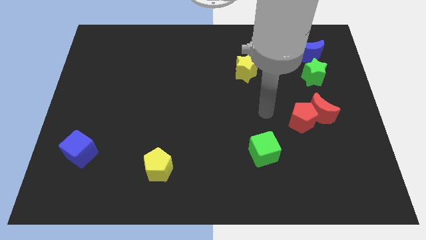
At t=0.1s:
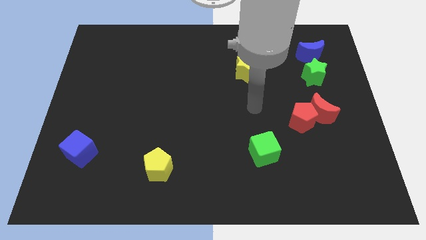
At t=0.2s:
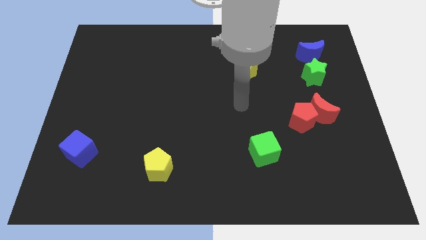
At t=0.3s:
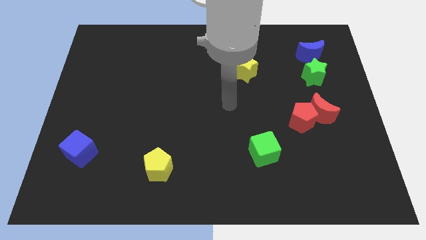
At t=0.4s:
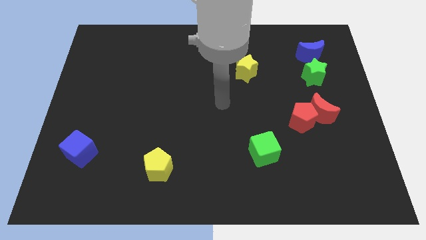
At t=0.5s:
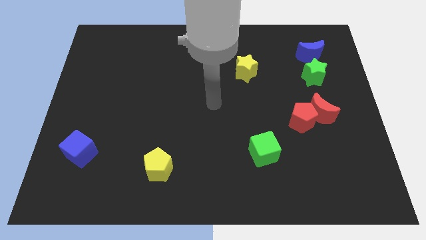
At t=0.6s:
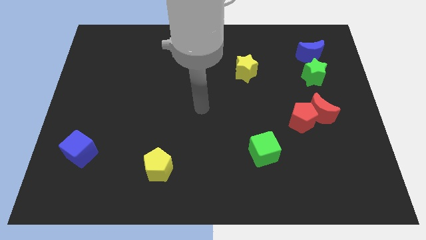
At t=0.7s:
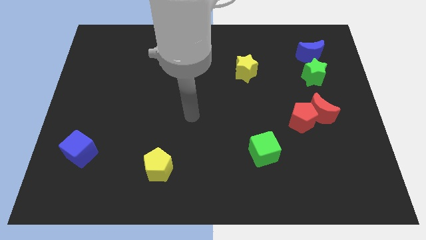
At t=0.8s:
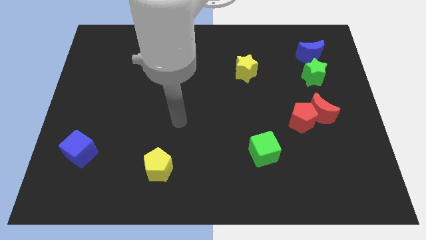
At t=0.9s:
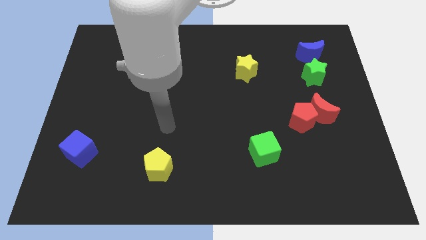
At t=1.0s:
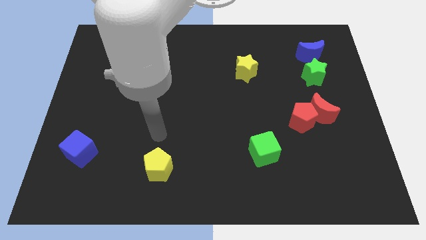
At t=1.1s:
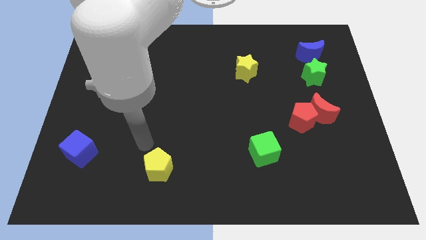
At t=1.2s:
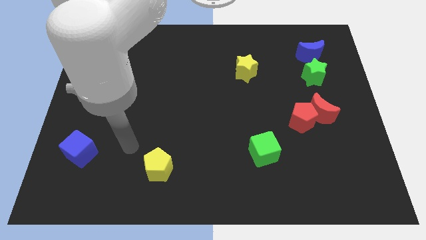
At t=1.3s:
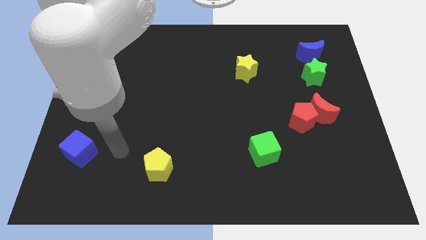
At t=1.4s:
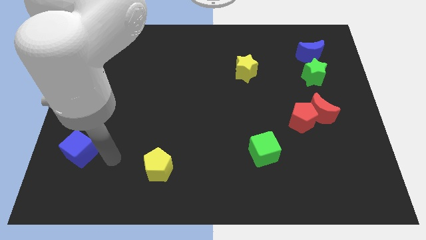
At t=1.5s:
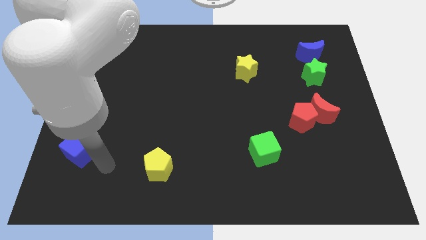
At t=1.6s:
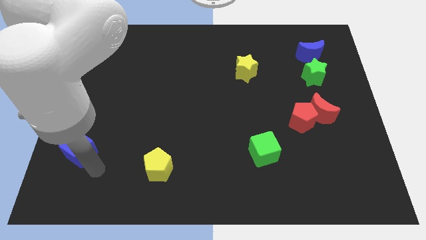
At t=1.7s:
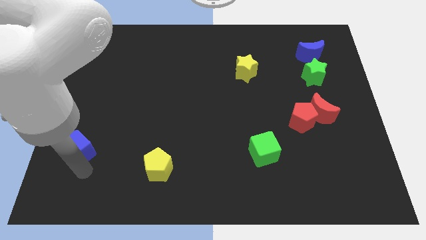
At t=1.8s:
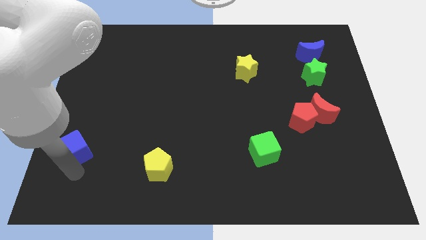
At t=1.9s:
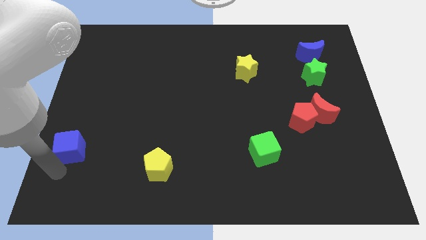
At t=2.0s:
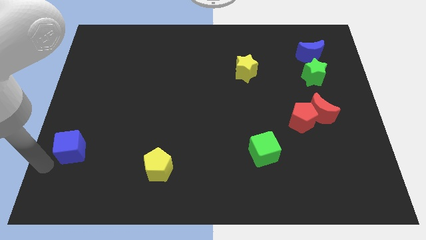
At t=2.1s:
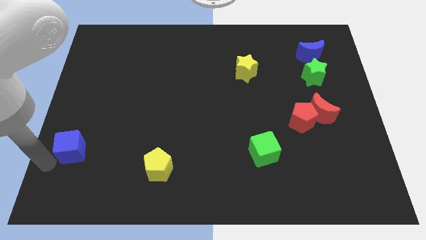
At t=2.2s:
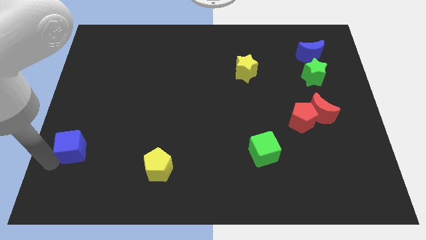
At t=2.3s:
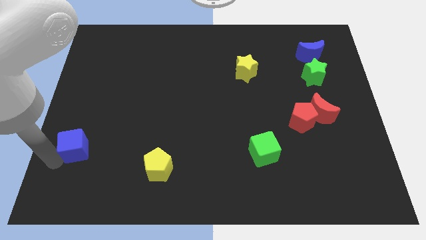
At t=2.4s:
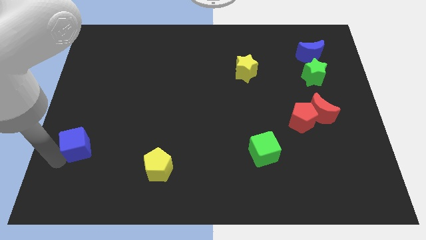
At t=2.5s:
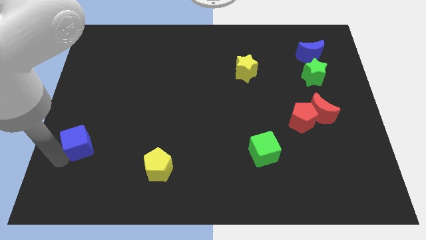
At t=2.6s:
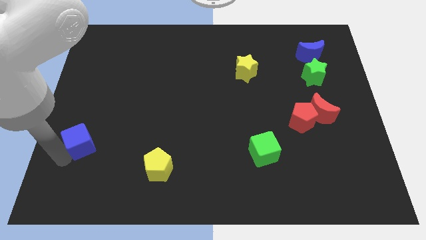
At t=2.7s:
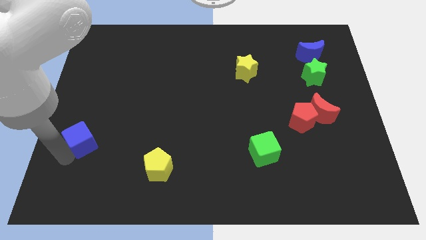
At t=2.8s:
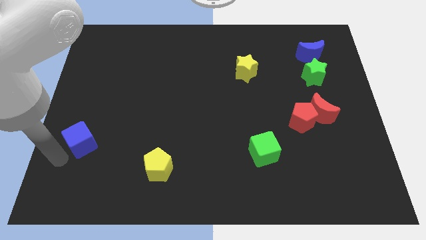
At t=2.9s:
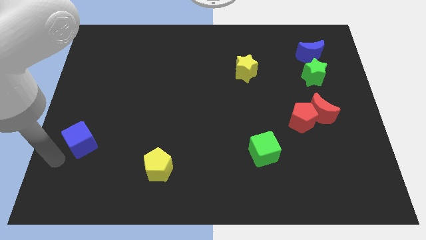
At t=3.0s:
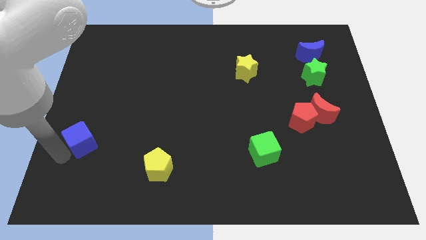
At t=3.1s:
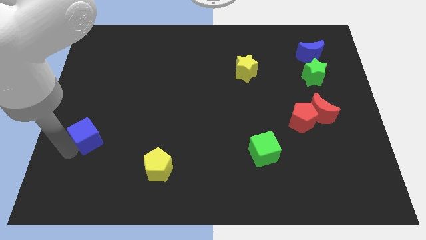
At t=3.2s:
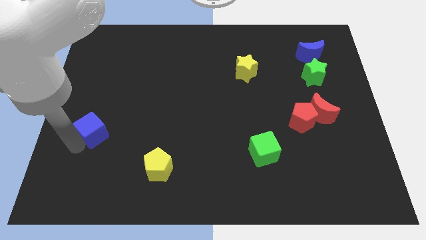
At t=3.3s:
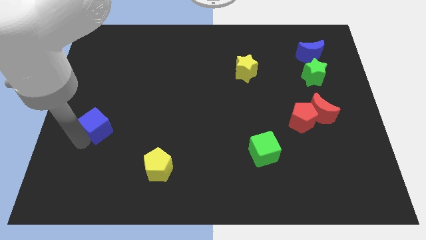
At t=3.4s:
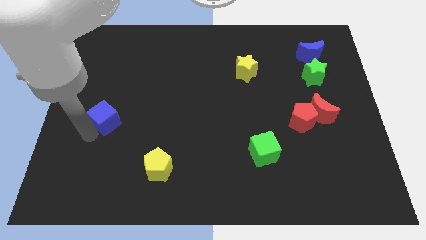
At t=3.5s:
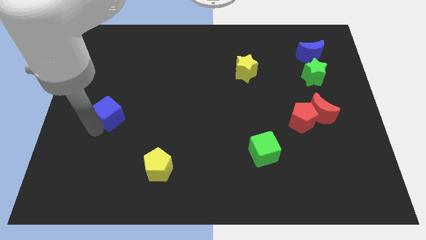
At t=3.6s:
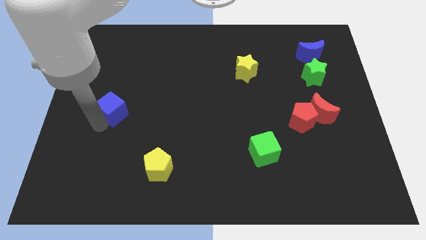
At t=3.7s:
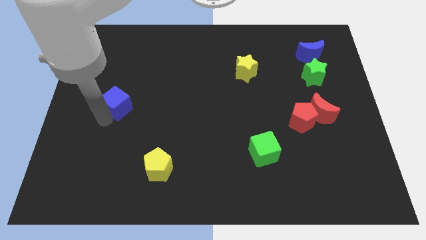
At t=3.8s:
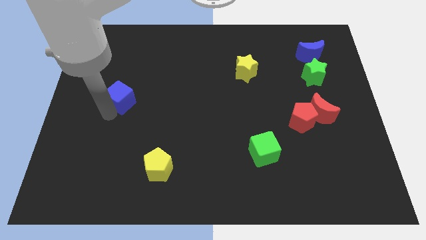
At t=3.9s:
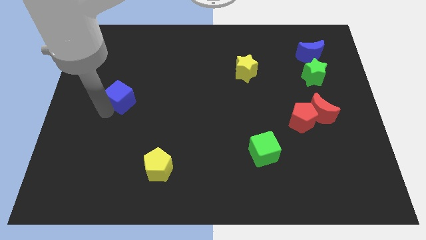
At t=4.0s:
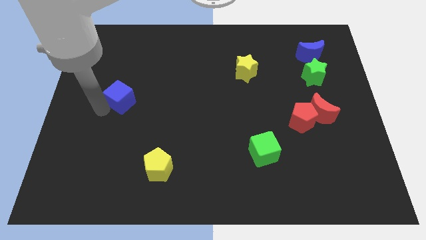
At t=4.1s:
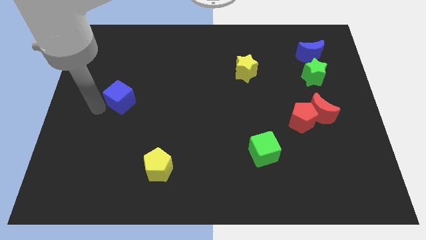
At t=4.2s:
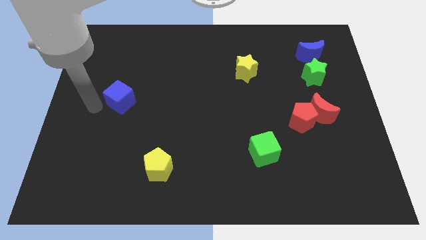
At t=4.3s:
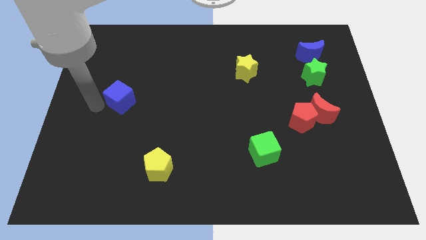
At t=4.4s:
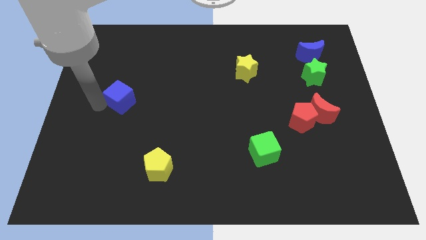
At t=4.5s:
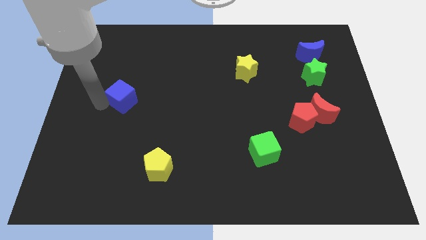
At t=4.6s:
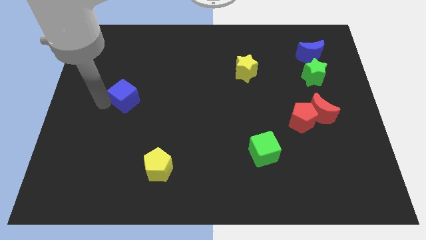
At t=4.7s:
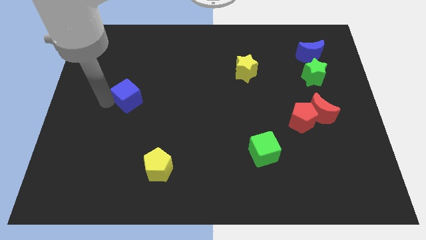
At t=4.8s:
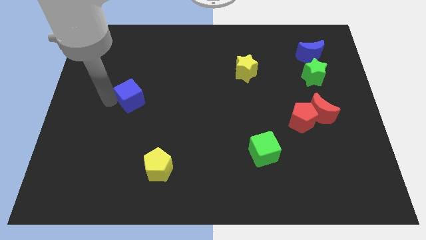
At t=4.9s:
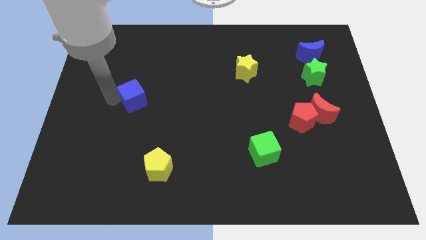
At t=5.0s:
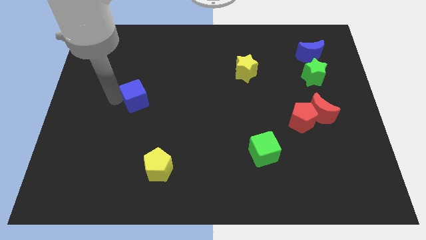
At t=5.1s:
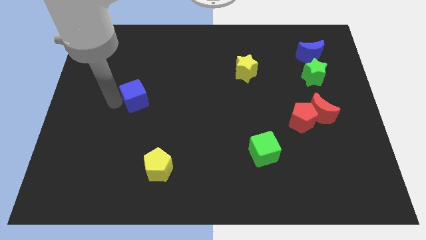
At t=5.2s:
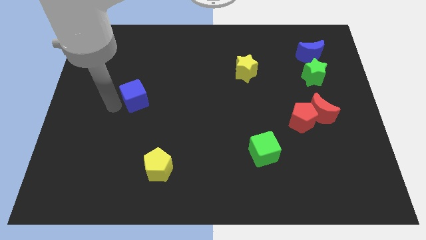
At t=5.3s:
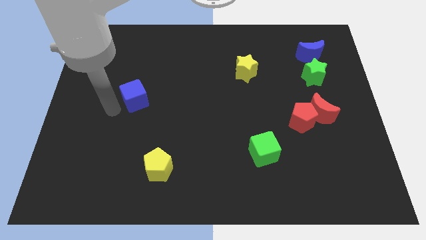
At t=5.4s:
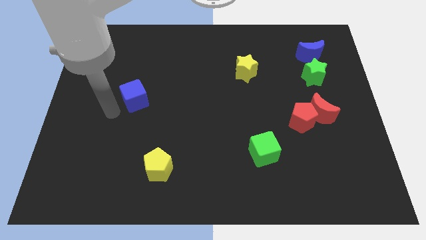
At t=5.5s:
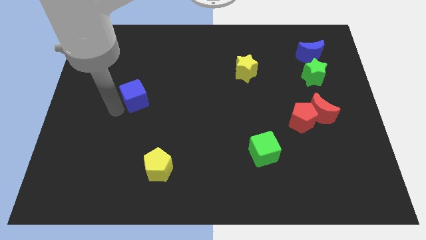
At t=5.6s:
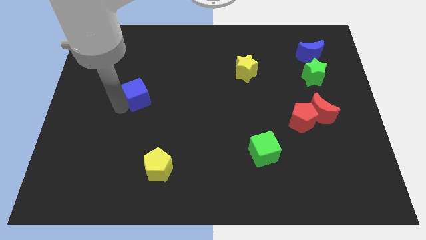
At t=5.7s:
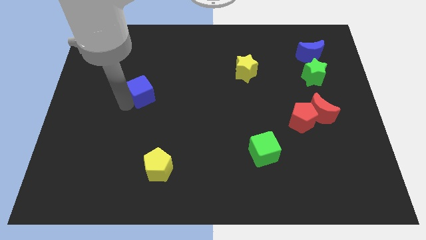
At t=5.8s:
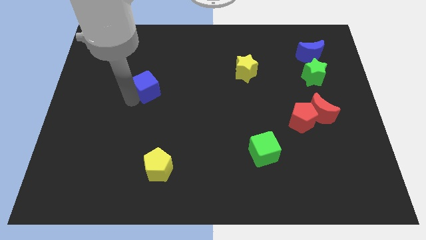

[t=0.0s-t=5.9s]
slide the blue cube diagonally up and to the right
